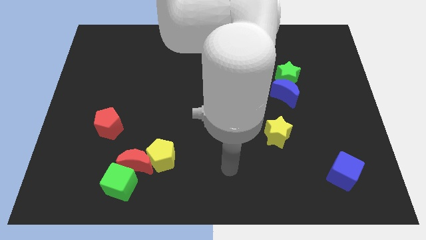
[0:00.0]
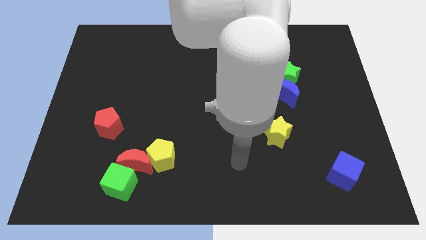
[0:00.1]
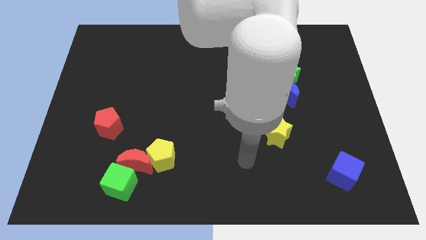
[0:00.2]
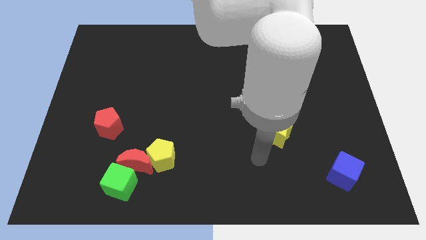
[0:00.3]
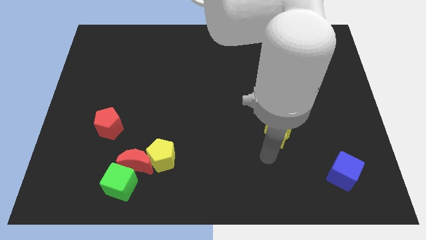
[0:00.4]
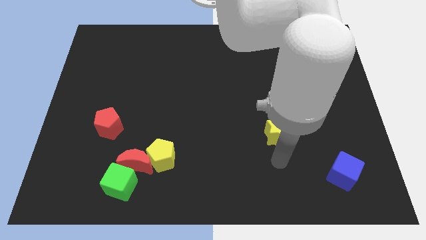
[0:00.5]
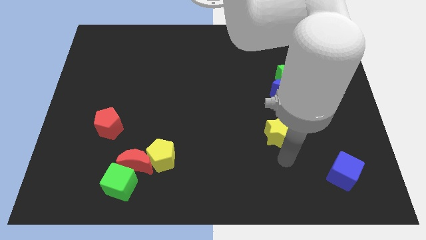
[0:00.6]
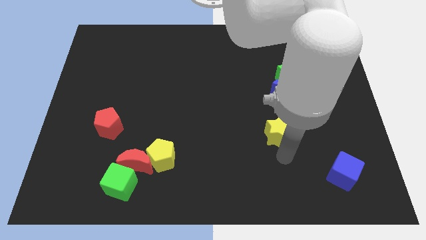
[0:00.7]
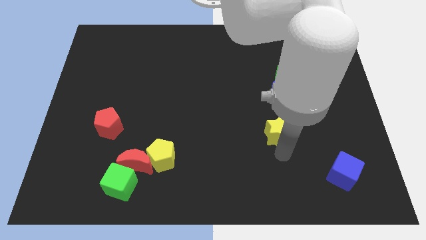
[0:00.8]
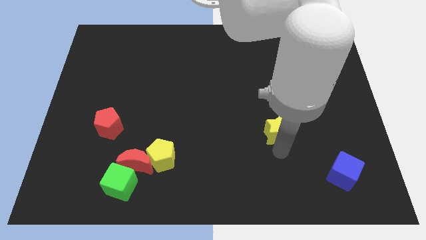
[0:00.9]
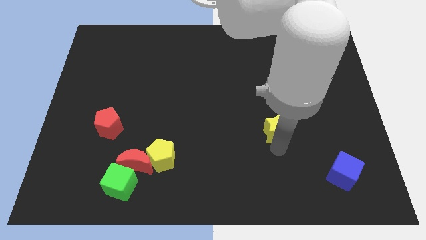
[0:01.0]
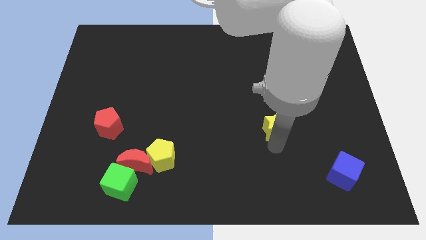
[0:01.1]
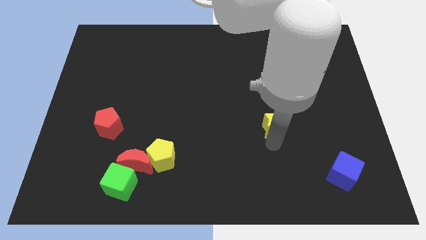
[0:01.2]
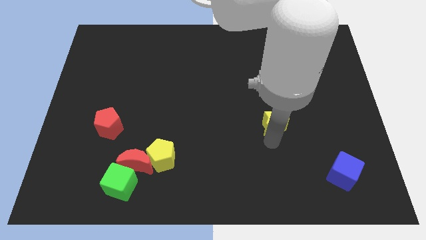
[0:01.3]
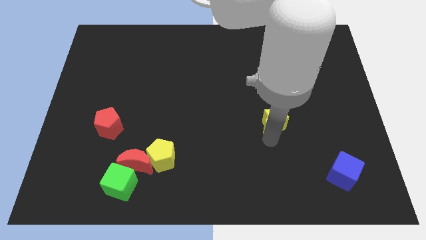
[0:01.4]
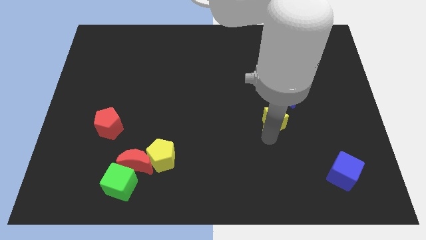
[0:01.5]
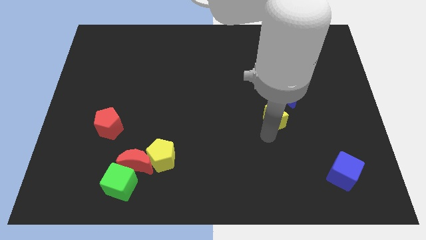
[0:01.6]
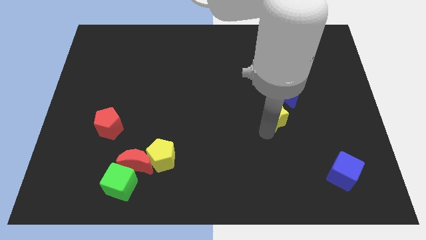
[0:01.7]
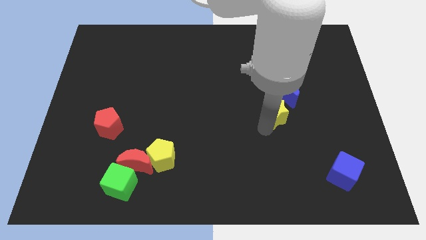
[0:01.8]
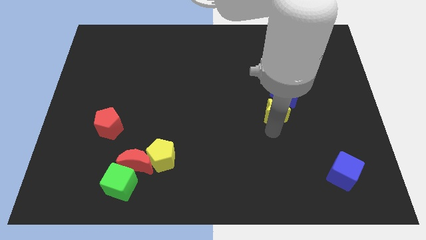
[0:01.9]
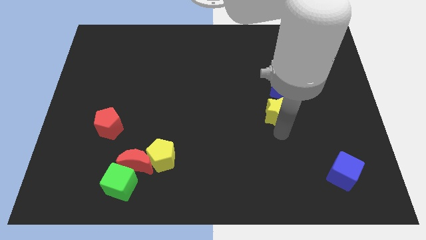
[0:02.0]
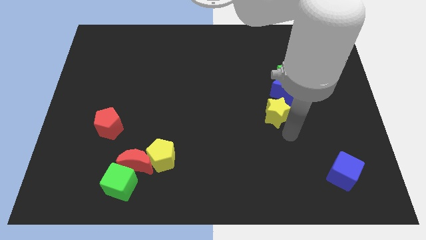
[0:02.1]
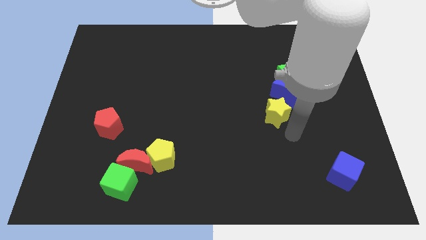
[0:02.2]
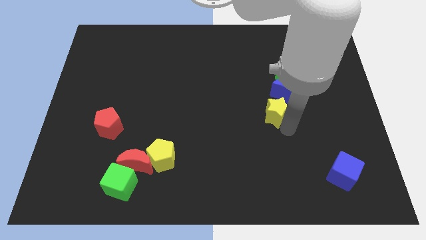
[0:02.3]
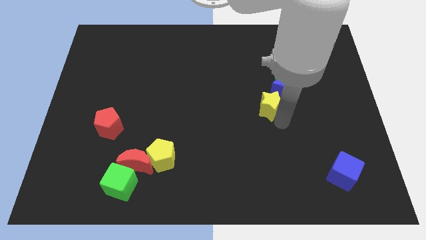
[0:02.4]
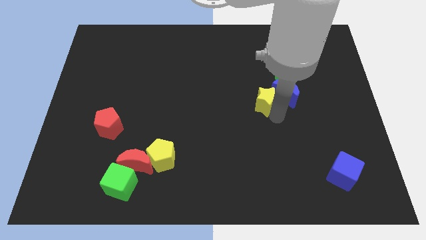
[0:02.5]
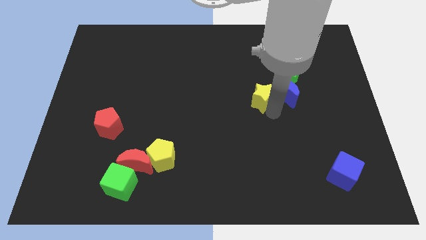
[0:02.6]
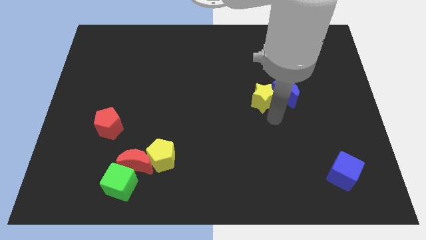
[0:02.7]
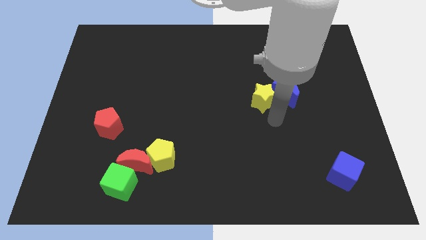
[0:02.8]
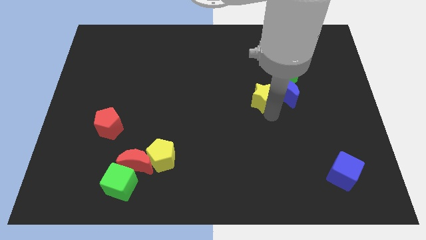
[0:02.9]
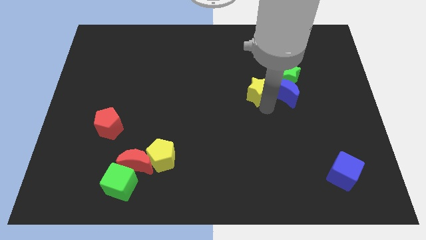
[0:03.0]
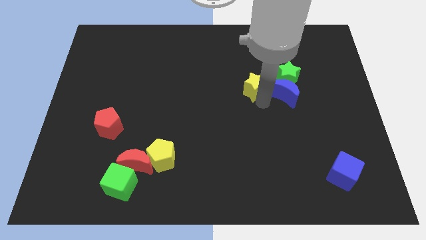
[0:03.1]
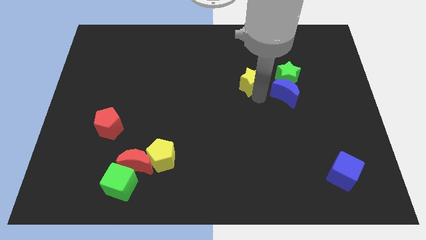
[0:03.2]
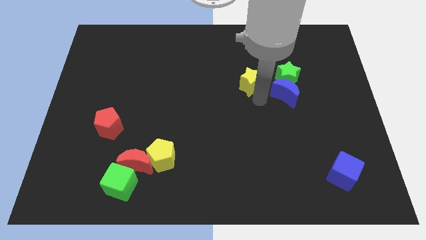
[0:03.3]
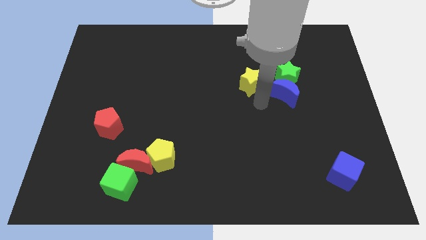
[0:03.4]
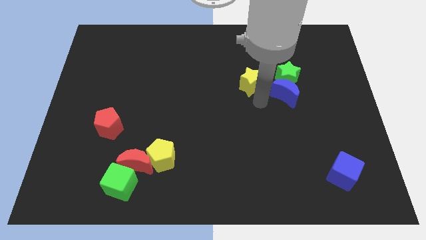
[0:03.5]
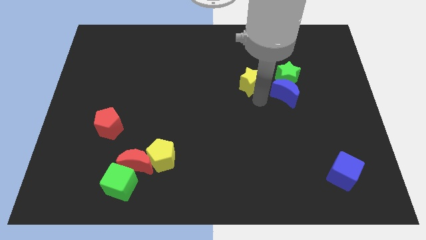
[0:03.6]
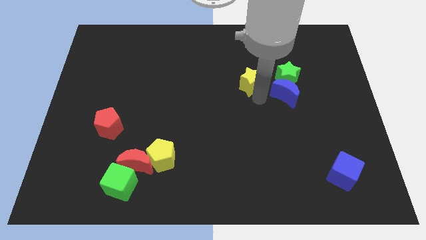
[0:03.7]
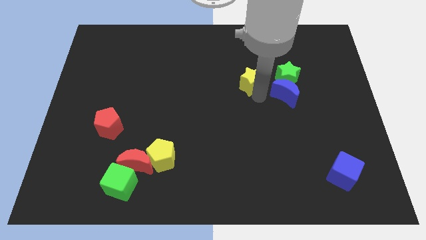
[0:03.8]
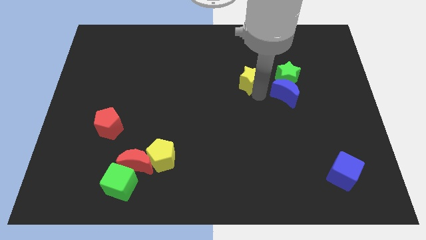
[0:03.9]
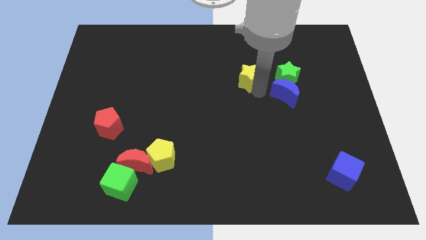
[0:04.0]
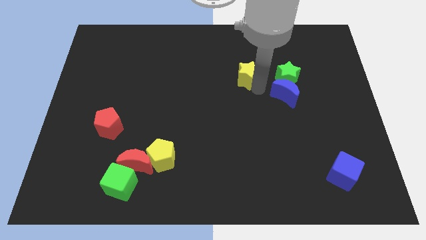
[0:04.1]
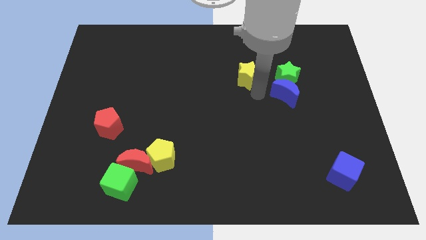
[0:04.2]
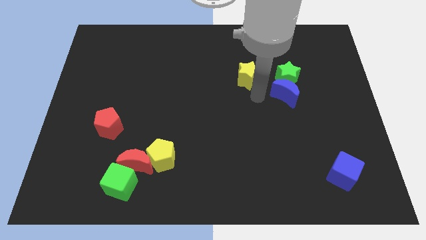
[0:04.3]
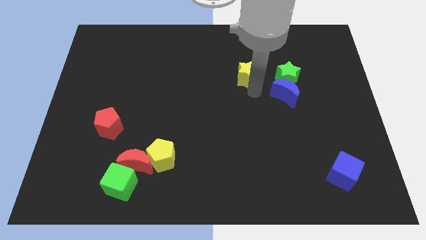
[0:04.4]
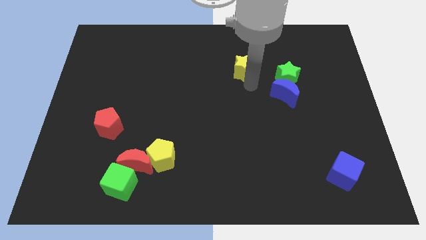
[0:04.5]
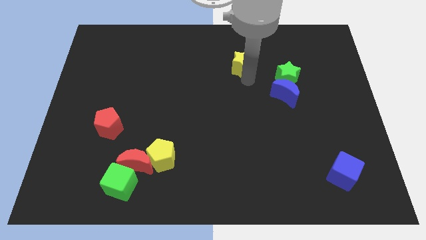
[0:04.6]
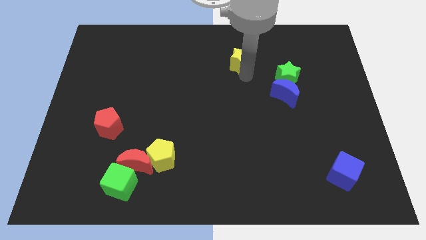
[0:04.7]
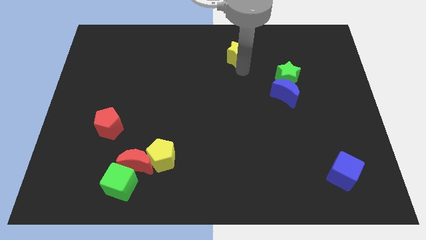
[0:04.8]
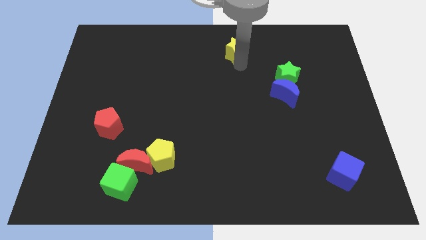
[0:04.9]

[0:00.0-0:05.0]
push the yellow star to the top
